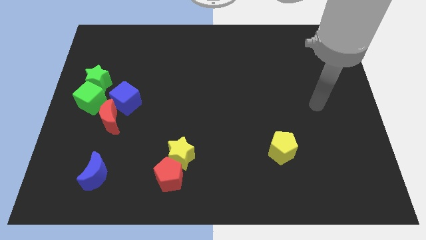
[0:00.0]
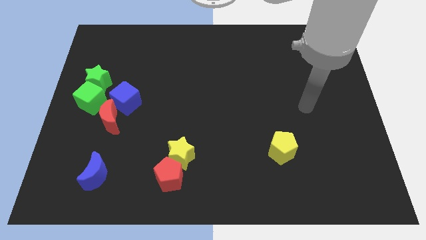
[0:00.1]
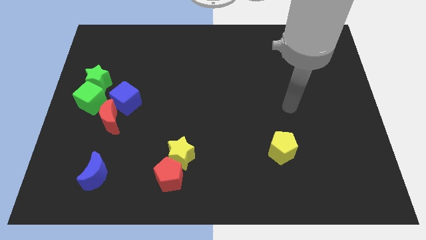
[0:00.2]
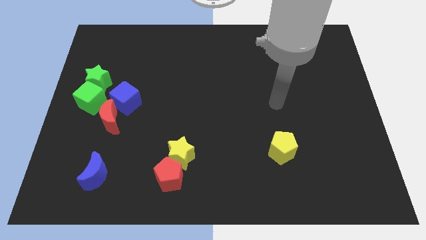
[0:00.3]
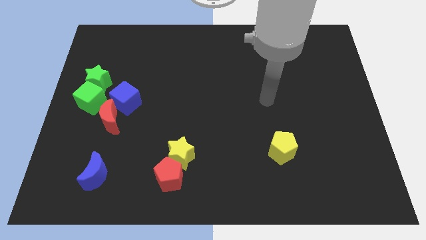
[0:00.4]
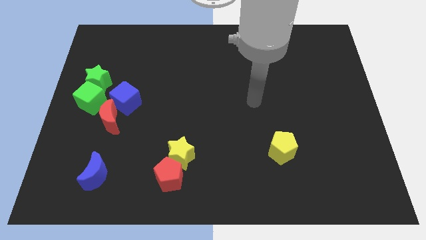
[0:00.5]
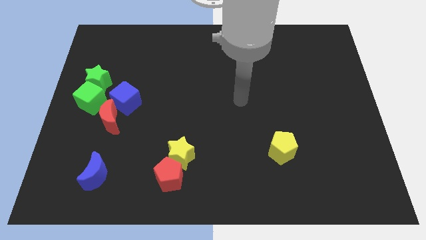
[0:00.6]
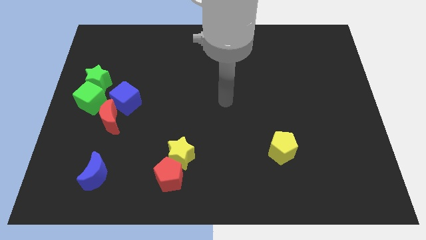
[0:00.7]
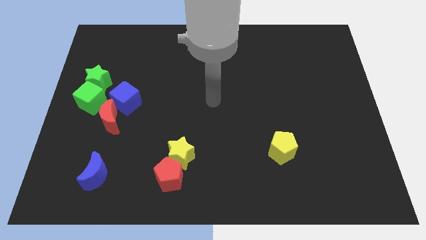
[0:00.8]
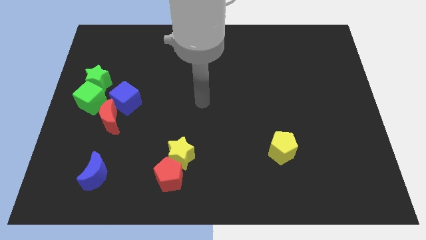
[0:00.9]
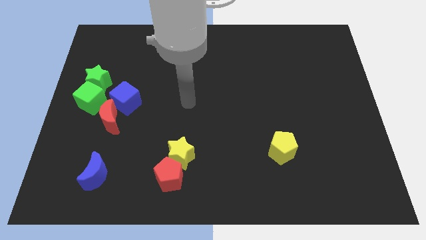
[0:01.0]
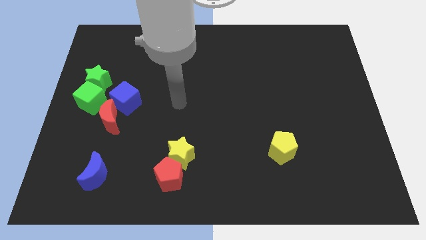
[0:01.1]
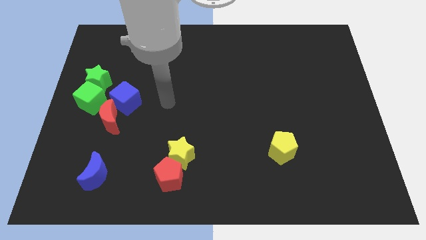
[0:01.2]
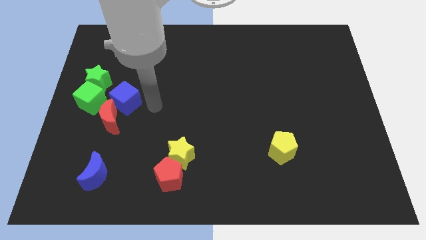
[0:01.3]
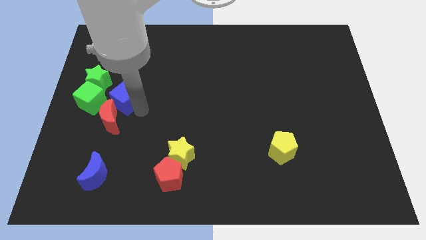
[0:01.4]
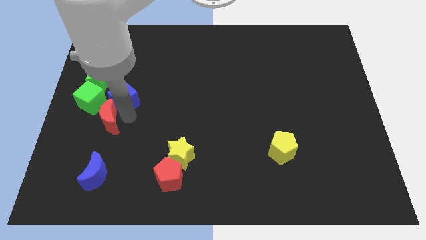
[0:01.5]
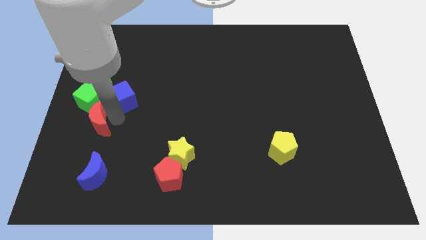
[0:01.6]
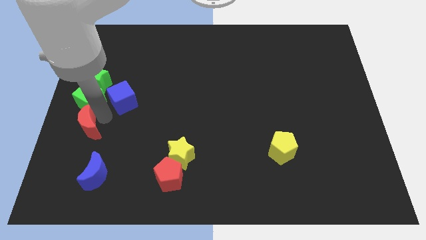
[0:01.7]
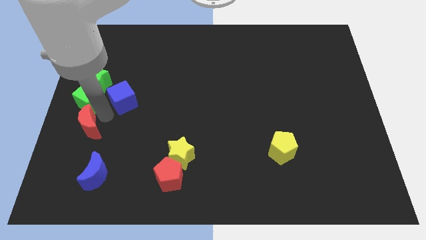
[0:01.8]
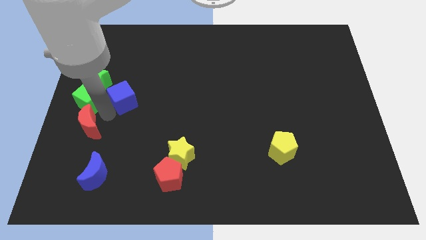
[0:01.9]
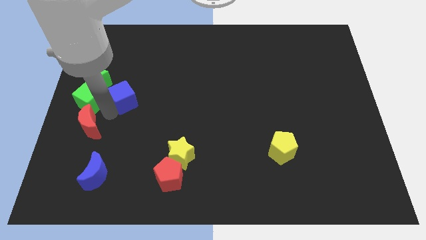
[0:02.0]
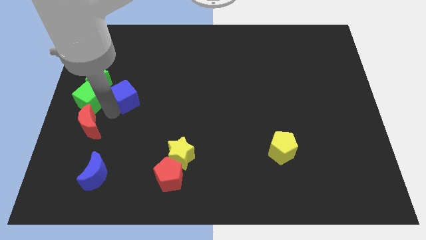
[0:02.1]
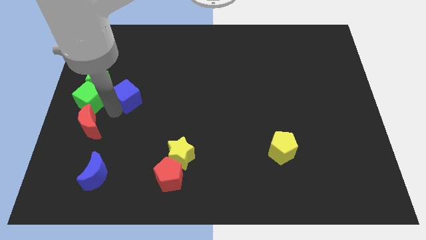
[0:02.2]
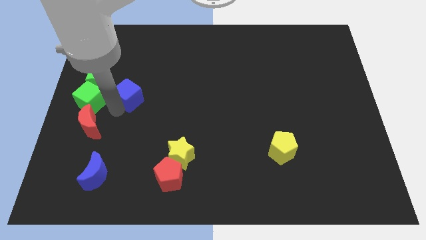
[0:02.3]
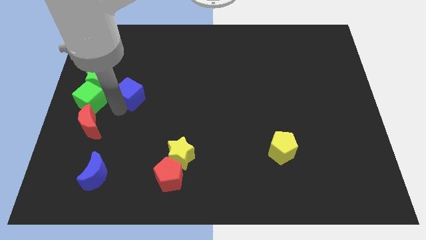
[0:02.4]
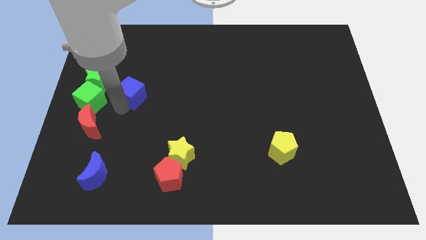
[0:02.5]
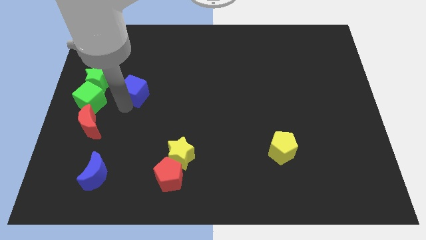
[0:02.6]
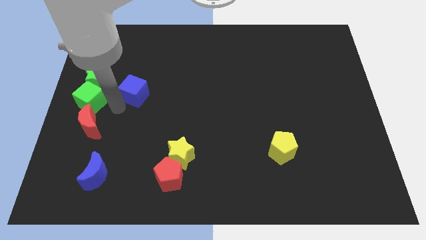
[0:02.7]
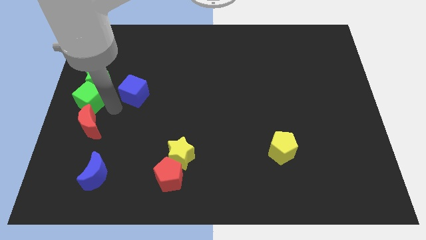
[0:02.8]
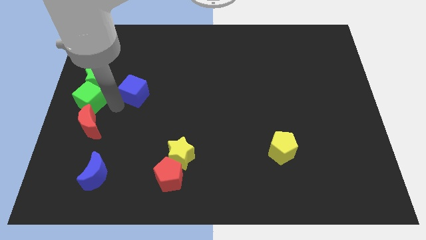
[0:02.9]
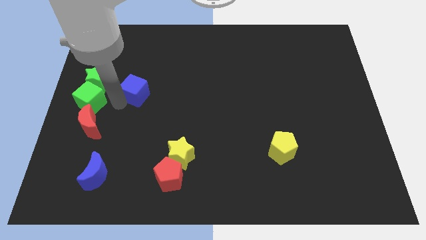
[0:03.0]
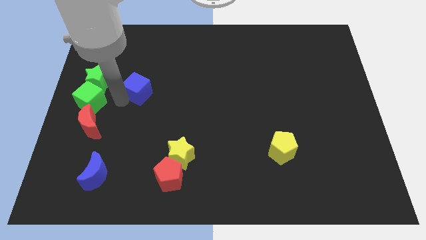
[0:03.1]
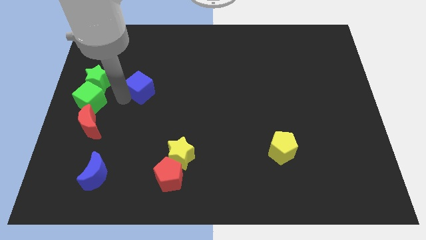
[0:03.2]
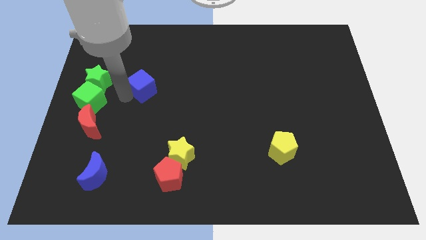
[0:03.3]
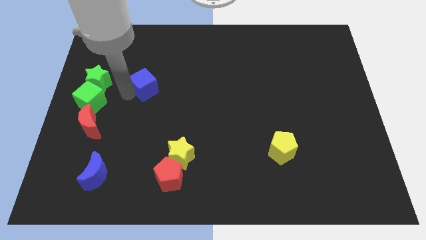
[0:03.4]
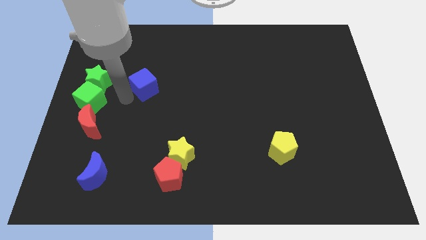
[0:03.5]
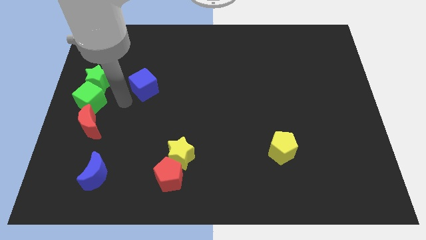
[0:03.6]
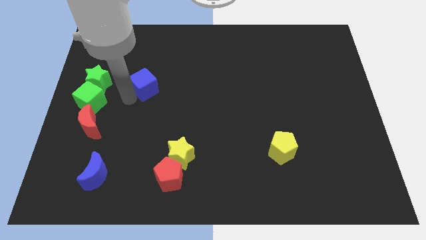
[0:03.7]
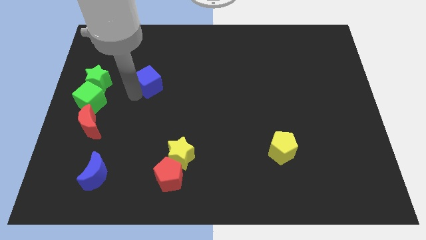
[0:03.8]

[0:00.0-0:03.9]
move the blue cube upwards and to the right slightly

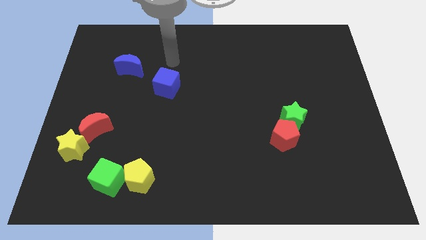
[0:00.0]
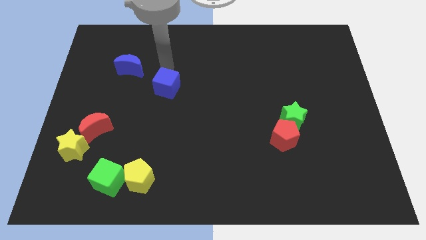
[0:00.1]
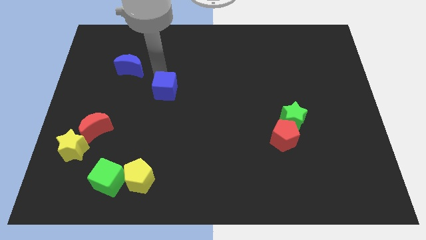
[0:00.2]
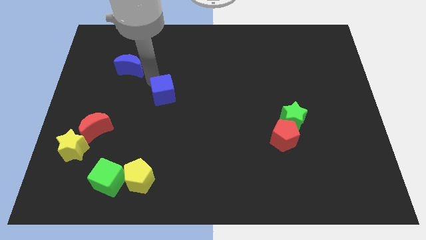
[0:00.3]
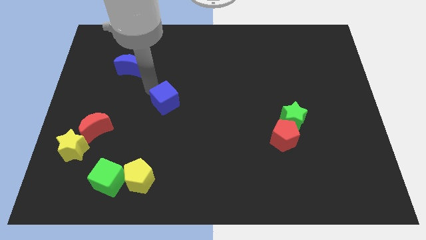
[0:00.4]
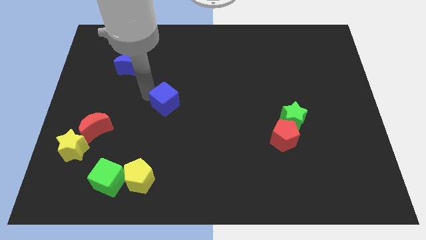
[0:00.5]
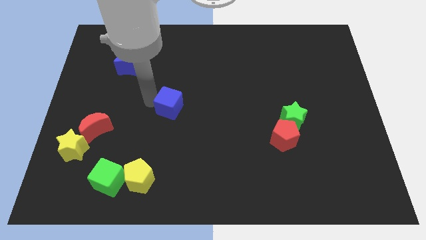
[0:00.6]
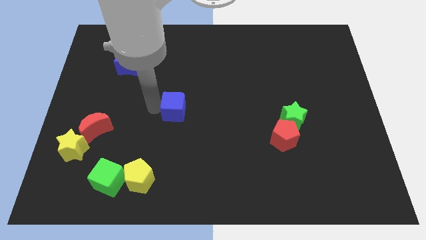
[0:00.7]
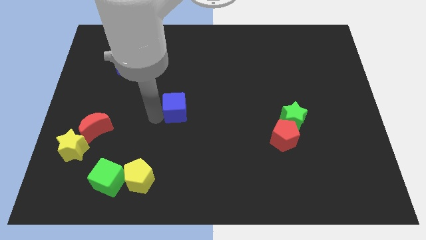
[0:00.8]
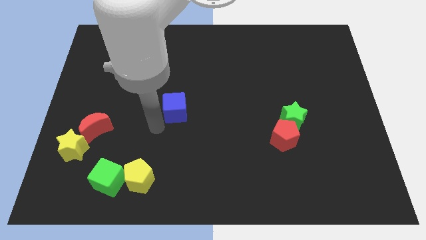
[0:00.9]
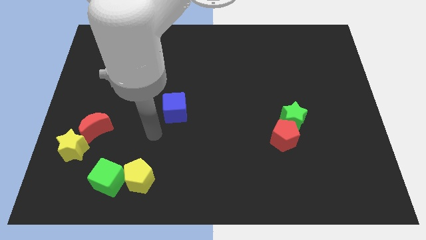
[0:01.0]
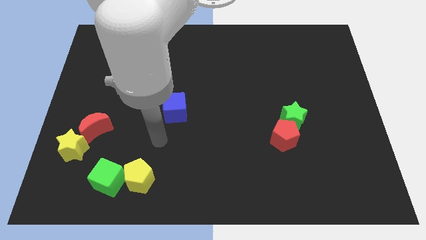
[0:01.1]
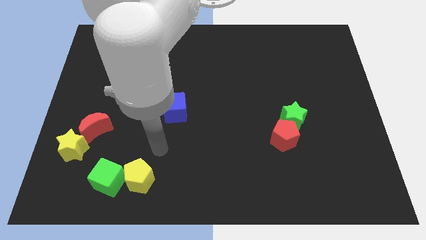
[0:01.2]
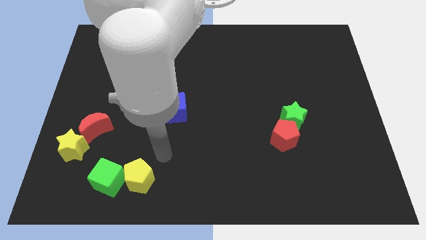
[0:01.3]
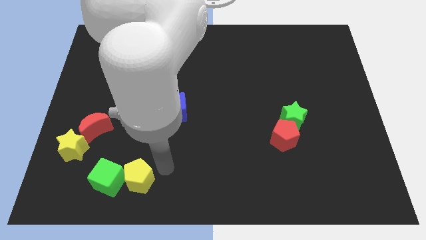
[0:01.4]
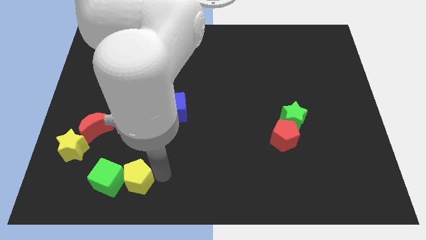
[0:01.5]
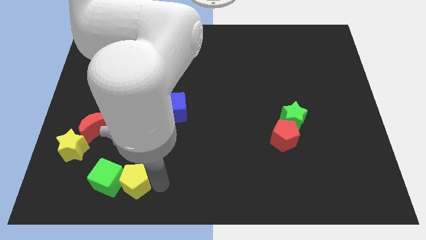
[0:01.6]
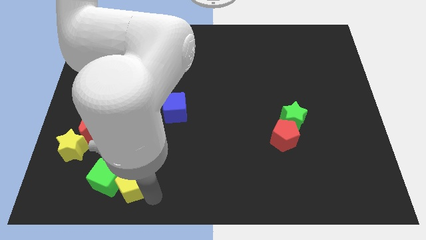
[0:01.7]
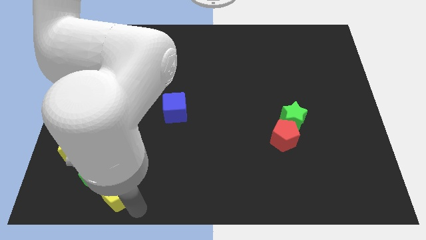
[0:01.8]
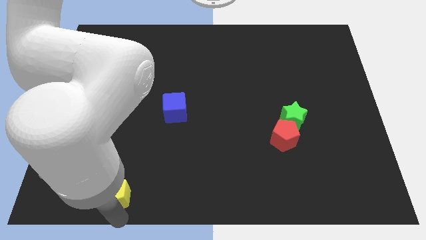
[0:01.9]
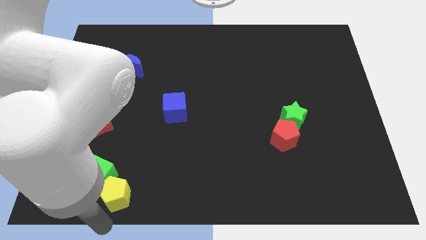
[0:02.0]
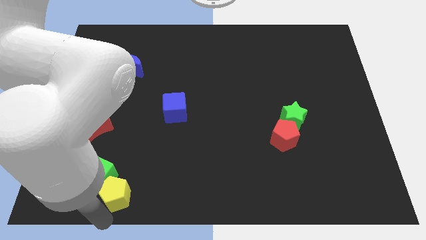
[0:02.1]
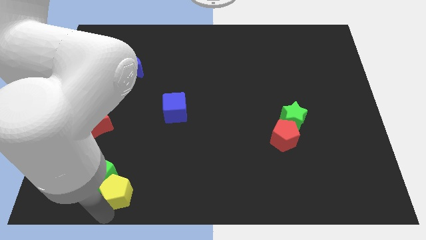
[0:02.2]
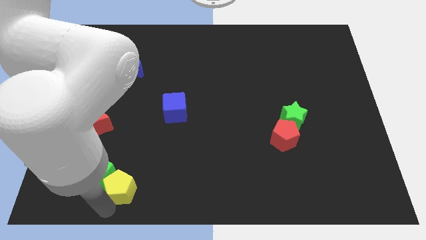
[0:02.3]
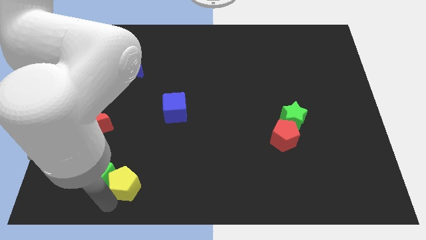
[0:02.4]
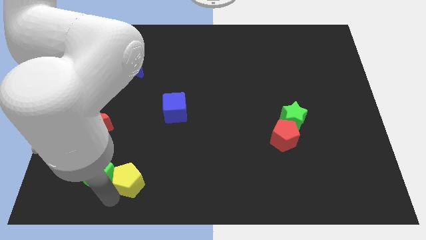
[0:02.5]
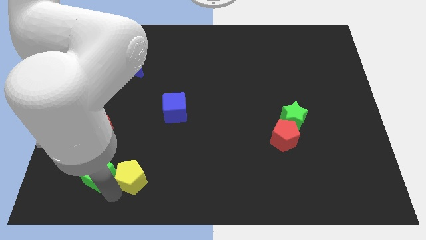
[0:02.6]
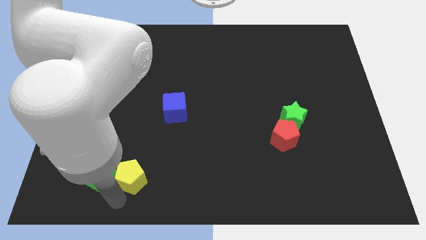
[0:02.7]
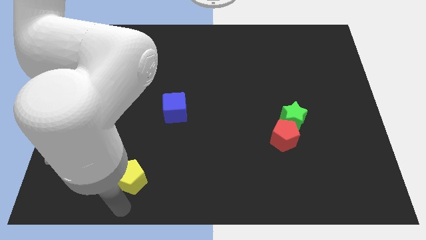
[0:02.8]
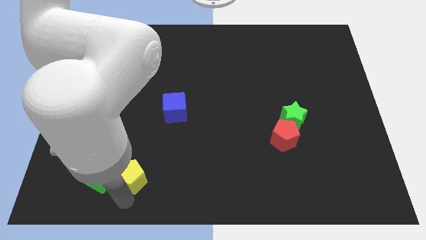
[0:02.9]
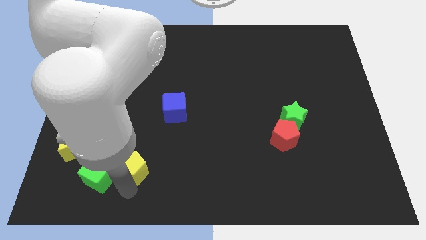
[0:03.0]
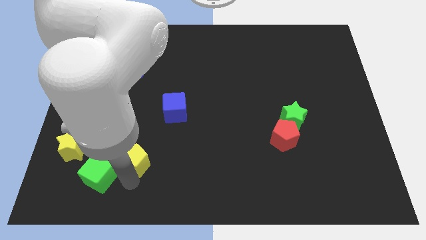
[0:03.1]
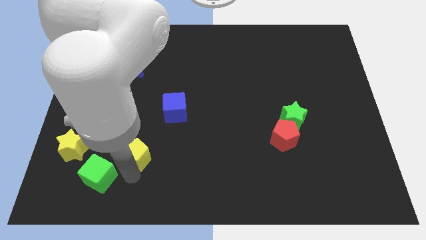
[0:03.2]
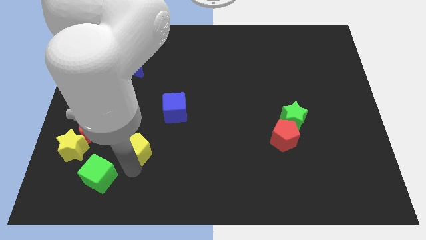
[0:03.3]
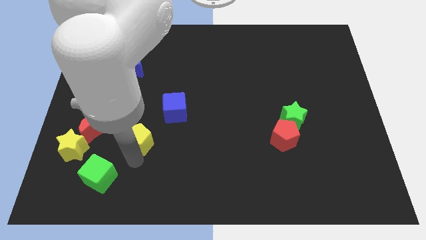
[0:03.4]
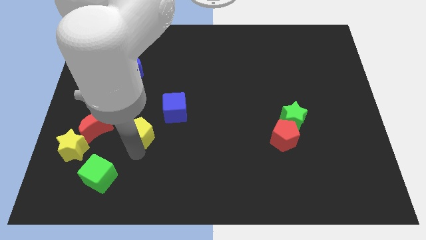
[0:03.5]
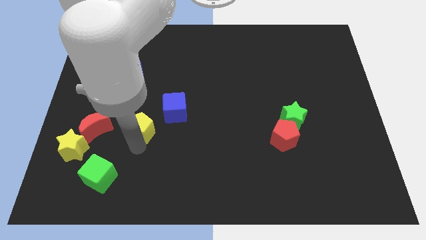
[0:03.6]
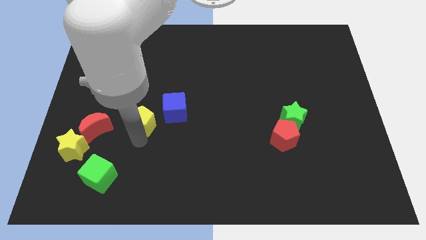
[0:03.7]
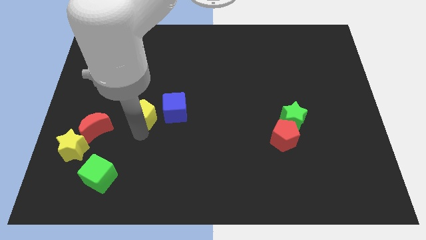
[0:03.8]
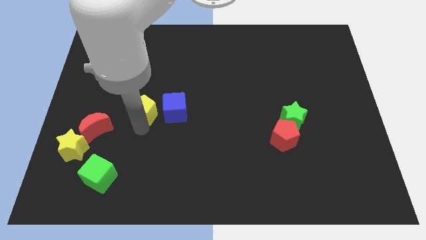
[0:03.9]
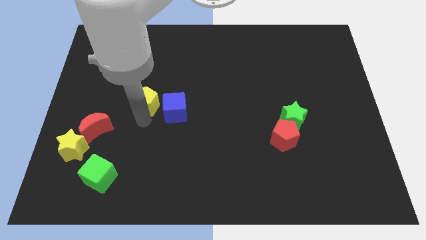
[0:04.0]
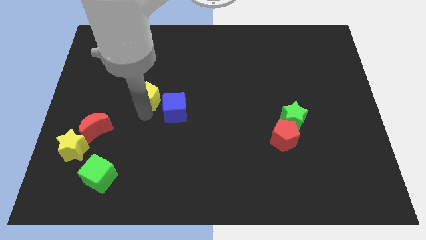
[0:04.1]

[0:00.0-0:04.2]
slide the yellow pentagon upwards

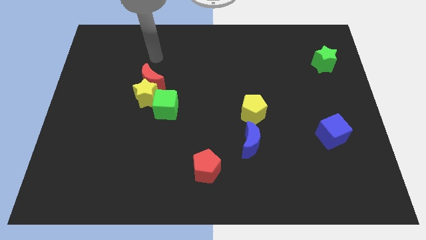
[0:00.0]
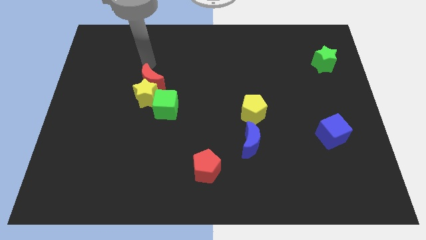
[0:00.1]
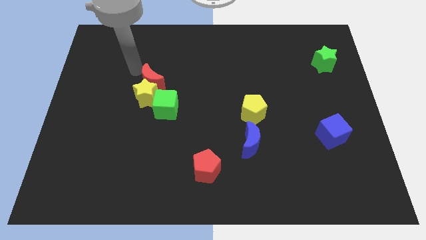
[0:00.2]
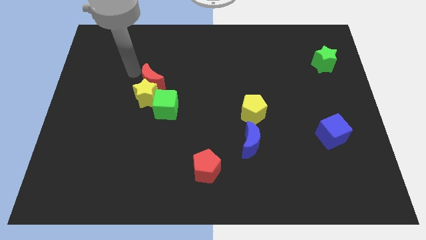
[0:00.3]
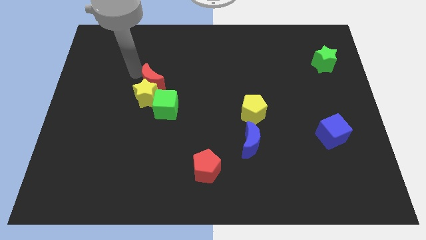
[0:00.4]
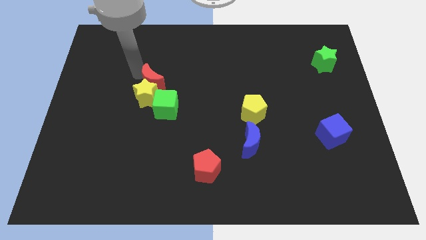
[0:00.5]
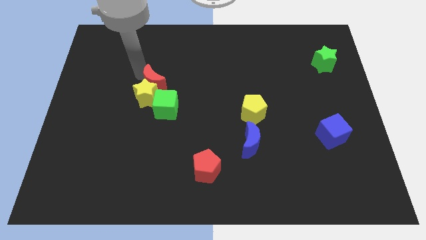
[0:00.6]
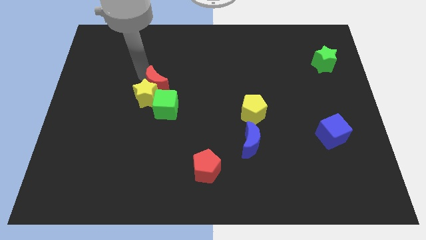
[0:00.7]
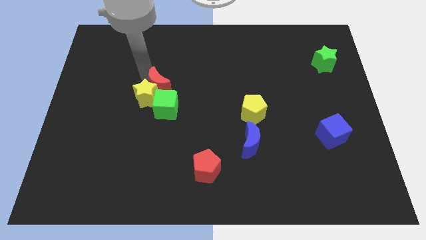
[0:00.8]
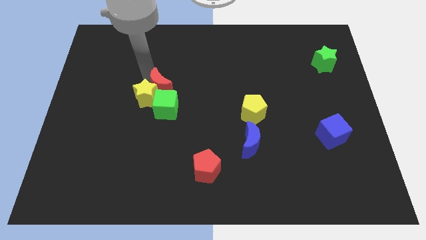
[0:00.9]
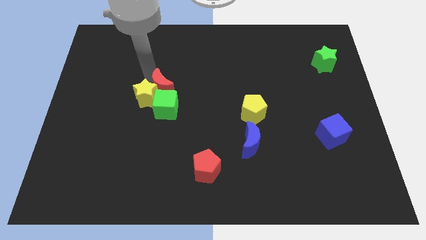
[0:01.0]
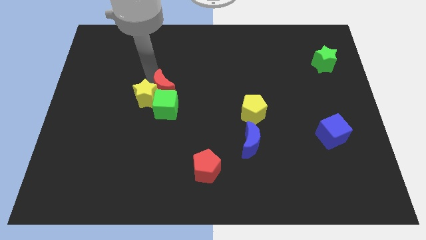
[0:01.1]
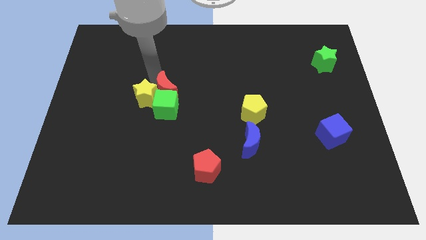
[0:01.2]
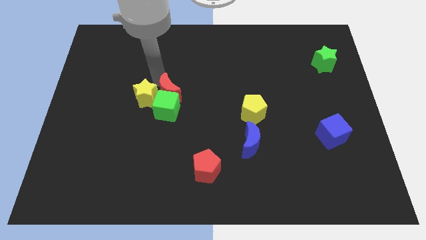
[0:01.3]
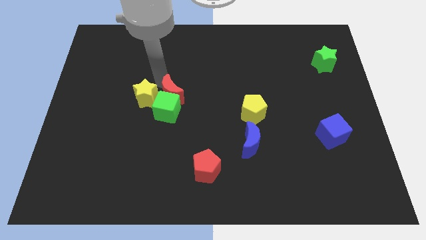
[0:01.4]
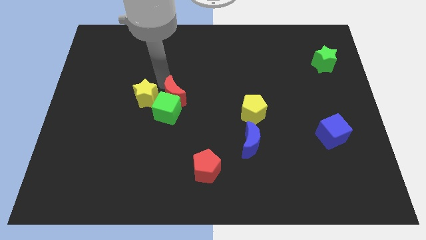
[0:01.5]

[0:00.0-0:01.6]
push the red moon a bit down and to the right
